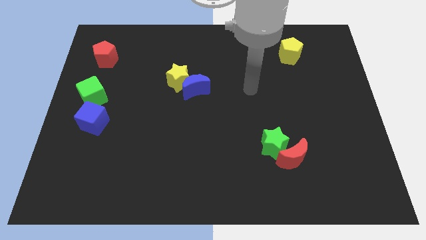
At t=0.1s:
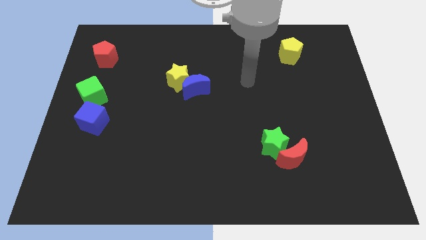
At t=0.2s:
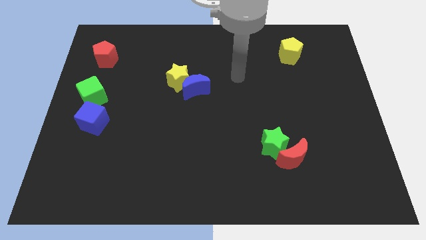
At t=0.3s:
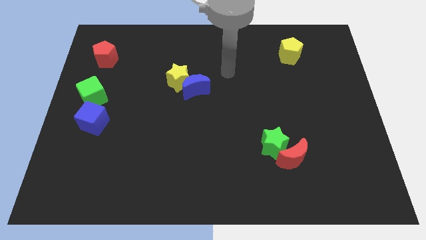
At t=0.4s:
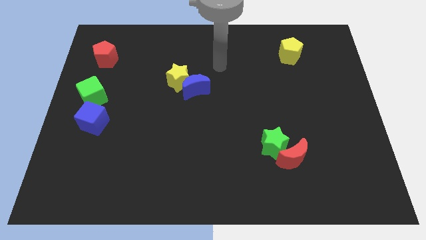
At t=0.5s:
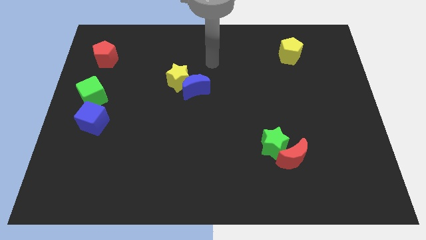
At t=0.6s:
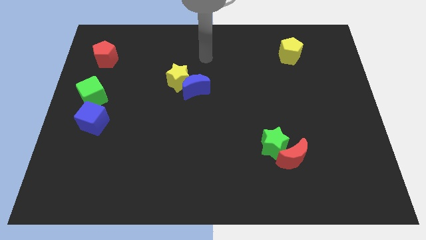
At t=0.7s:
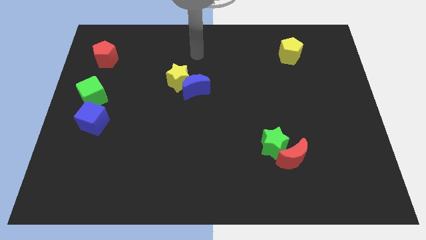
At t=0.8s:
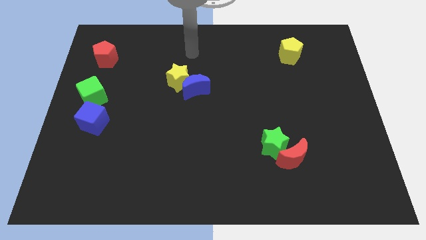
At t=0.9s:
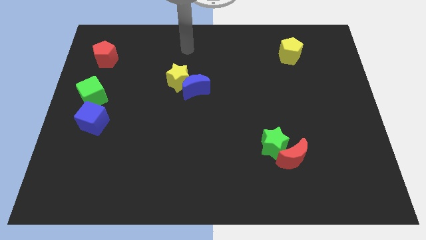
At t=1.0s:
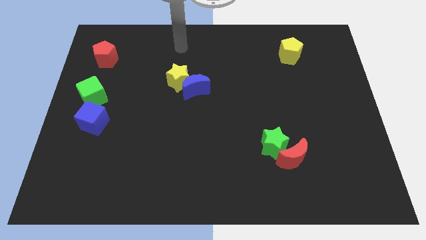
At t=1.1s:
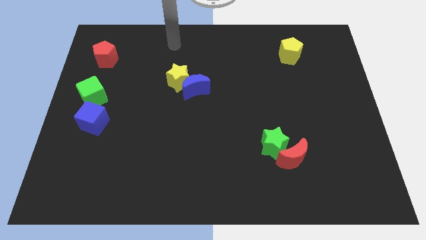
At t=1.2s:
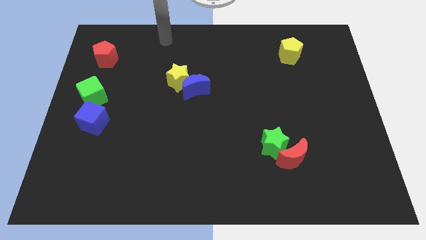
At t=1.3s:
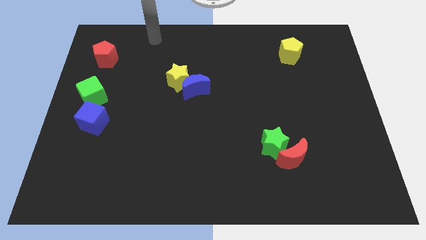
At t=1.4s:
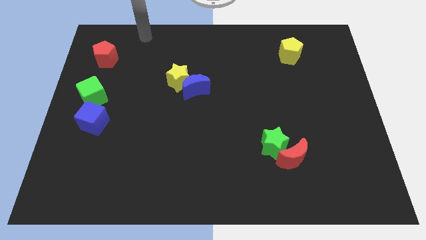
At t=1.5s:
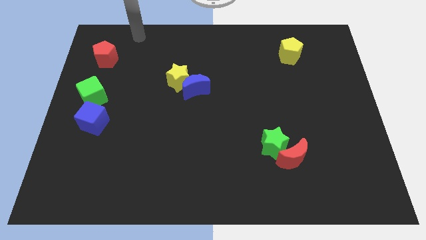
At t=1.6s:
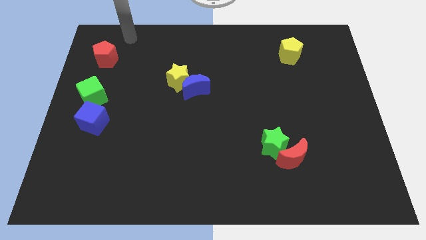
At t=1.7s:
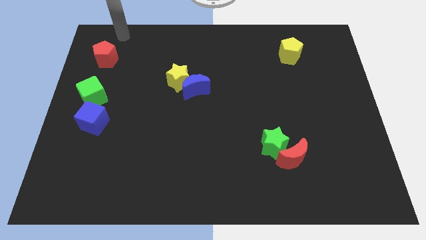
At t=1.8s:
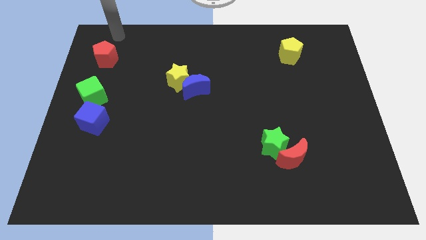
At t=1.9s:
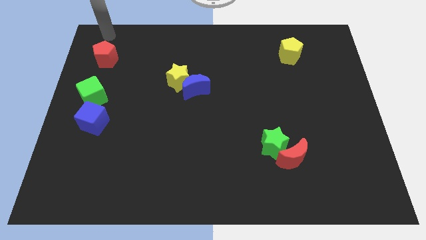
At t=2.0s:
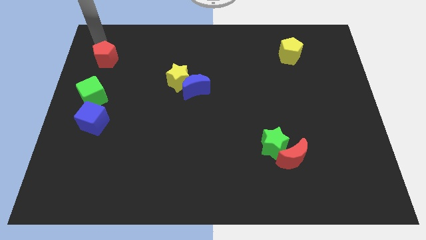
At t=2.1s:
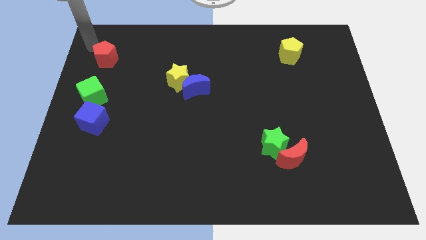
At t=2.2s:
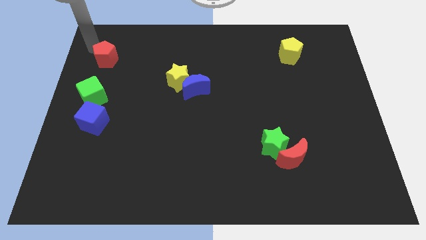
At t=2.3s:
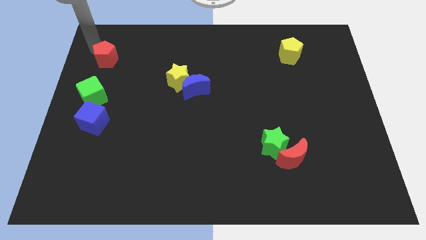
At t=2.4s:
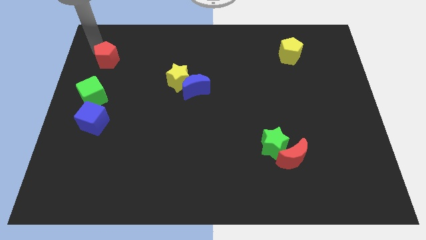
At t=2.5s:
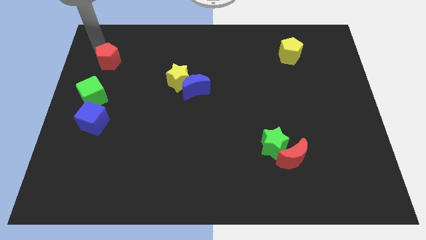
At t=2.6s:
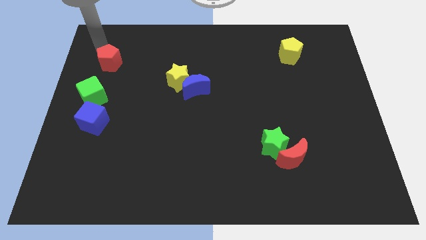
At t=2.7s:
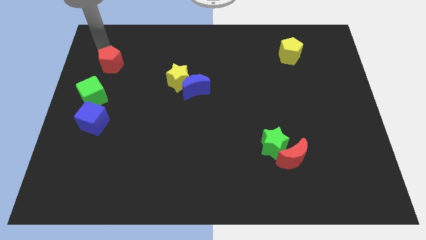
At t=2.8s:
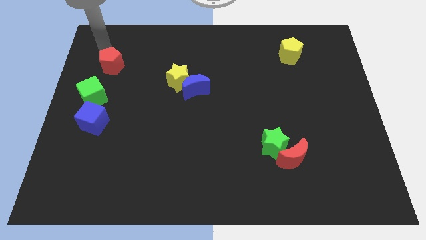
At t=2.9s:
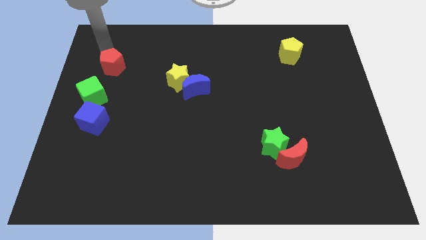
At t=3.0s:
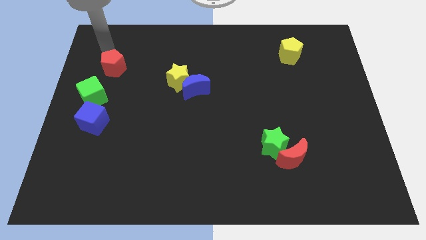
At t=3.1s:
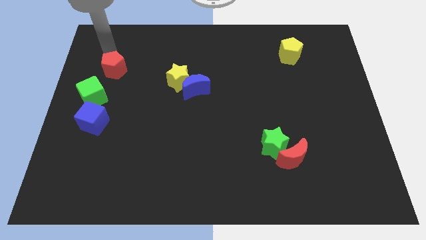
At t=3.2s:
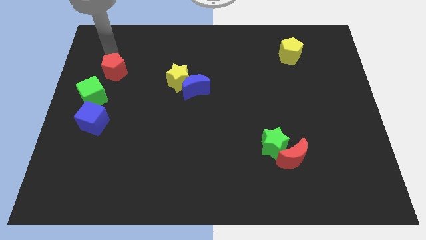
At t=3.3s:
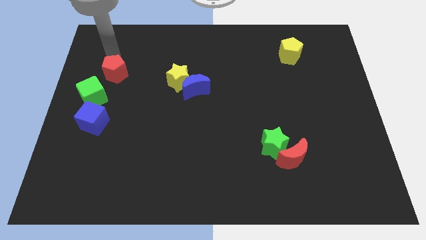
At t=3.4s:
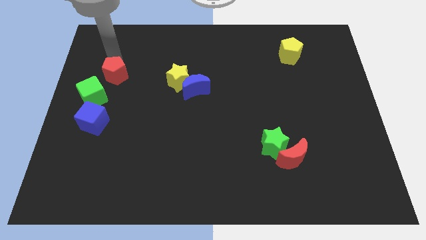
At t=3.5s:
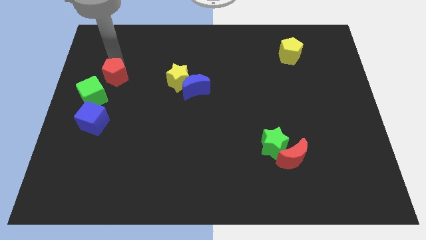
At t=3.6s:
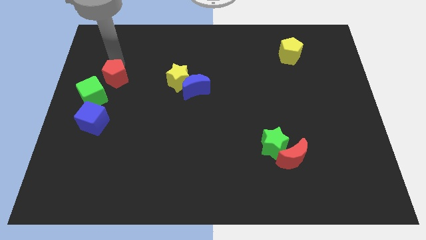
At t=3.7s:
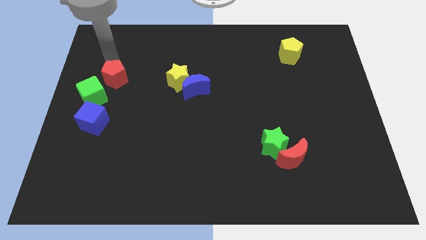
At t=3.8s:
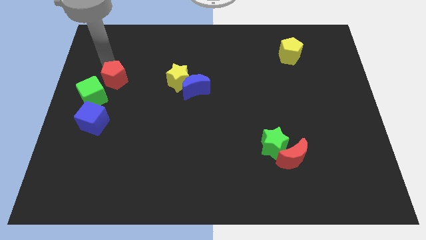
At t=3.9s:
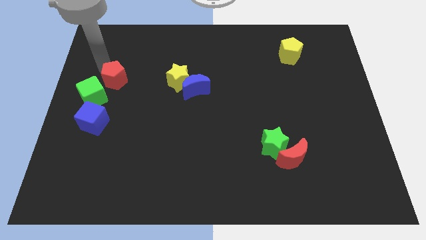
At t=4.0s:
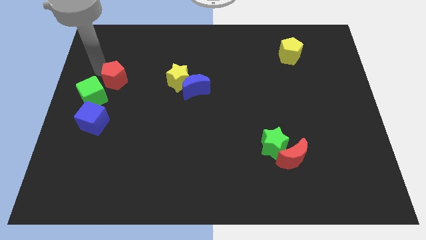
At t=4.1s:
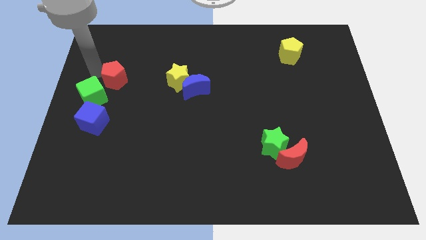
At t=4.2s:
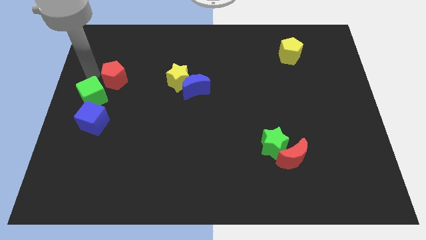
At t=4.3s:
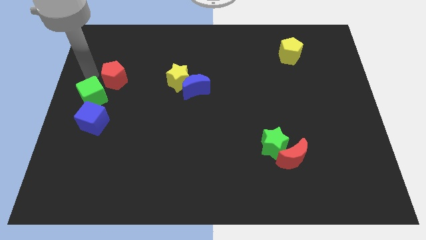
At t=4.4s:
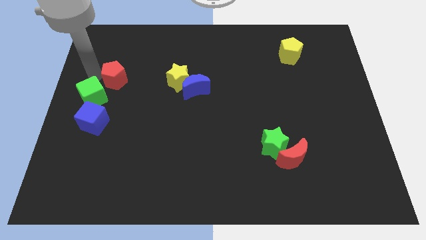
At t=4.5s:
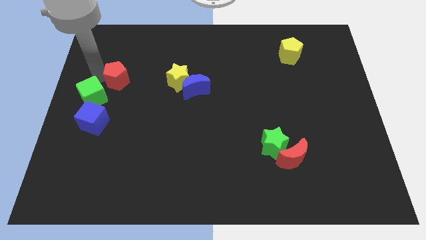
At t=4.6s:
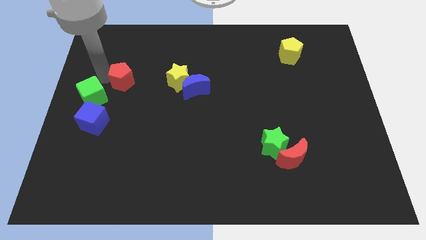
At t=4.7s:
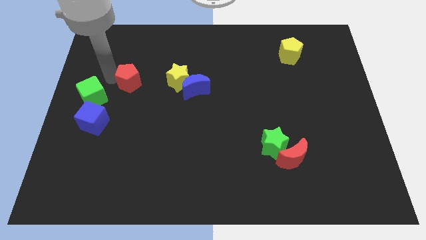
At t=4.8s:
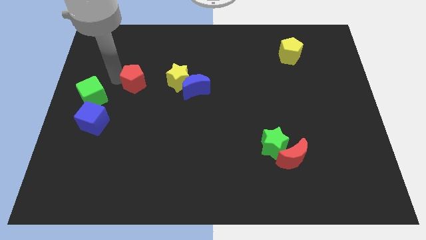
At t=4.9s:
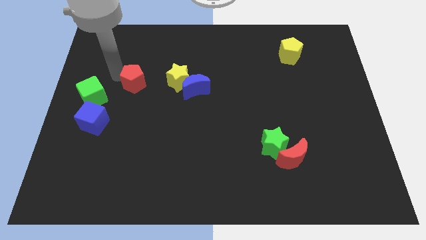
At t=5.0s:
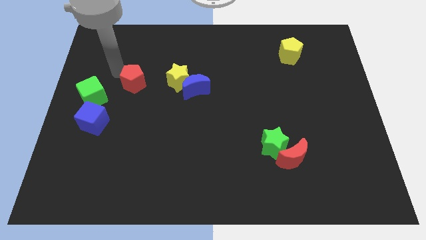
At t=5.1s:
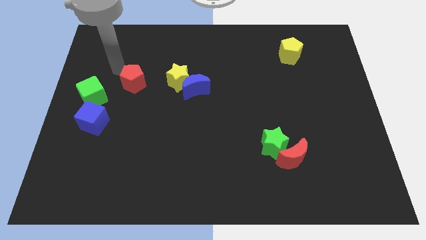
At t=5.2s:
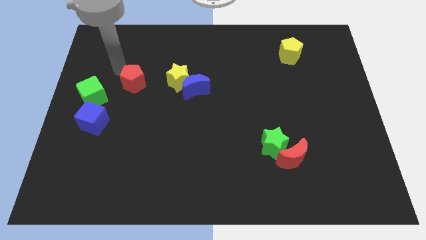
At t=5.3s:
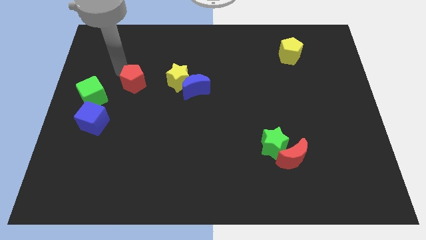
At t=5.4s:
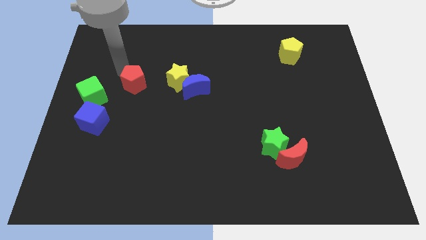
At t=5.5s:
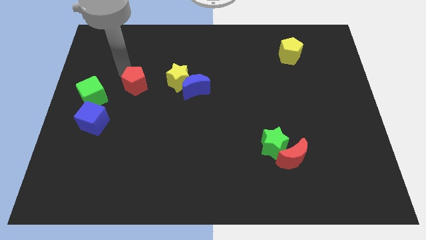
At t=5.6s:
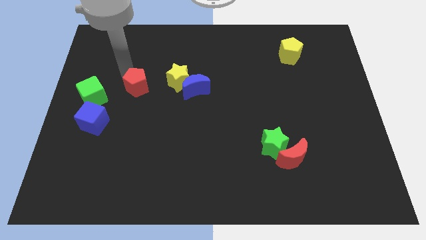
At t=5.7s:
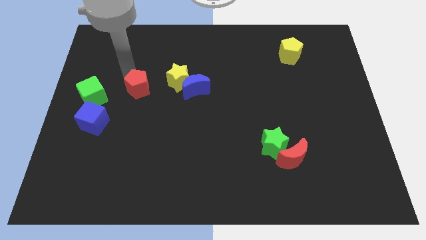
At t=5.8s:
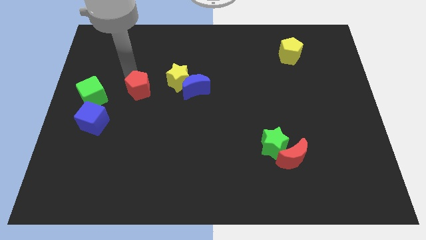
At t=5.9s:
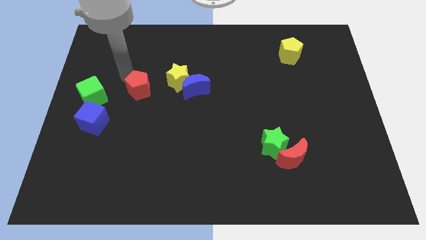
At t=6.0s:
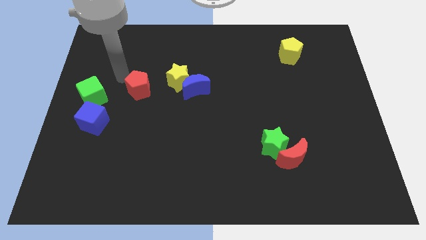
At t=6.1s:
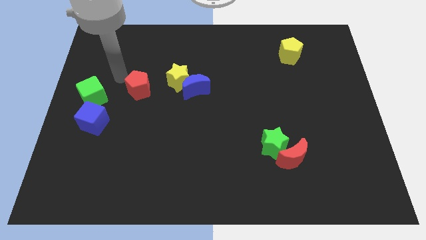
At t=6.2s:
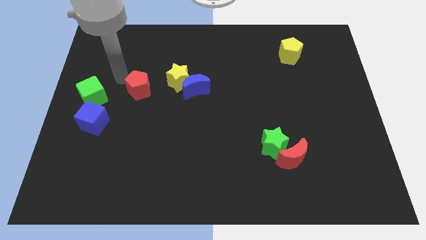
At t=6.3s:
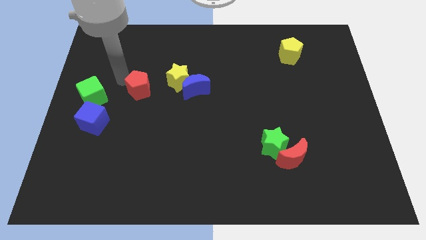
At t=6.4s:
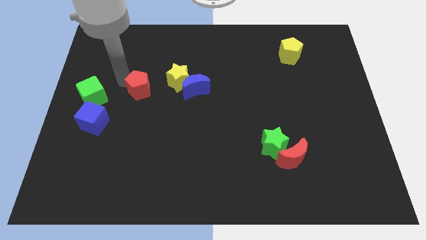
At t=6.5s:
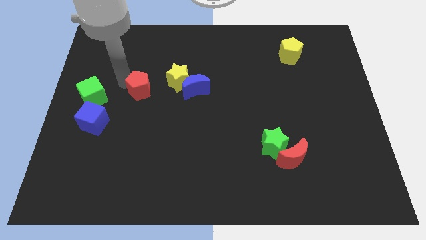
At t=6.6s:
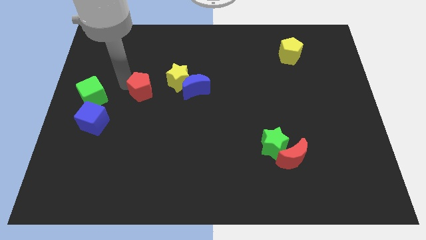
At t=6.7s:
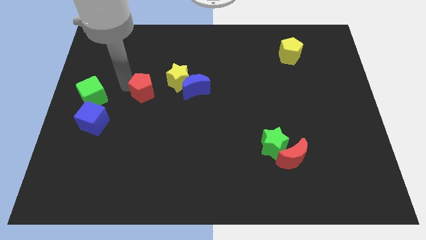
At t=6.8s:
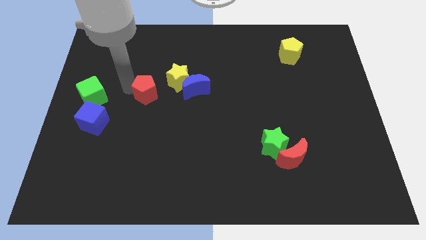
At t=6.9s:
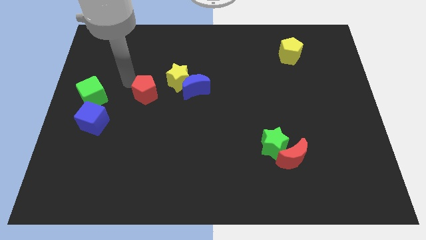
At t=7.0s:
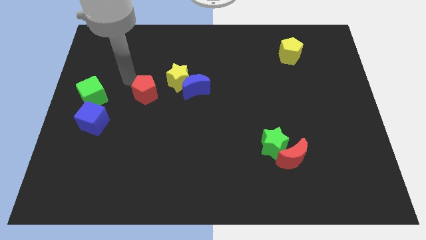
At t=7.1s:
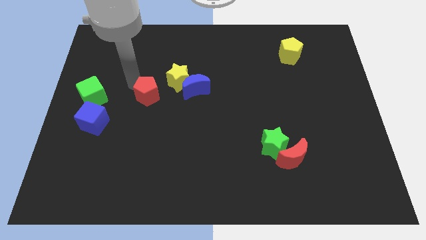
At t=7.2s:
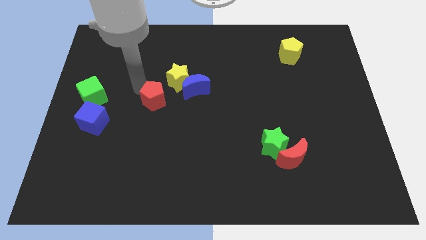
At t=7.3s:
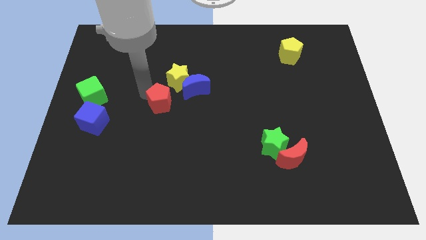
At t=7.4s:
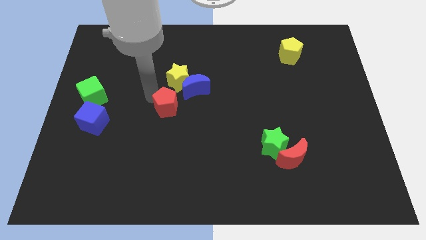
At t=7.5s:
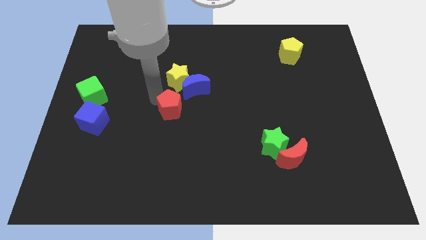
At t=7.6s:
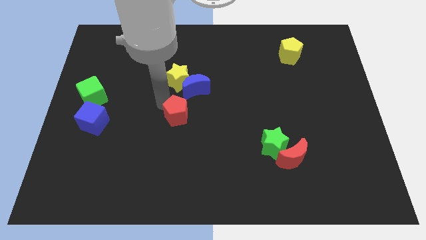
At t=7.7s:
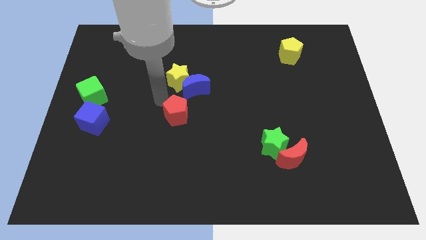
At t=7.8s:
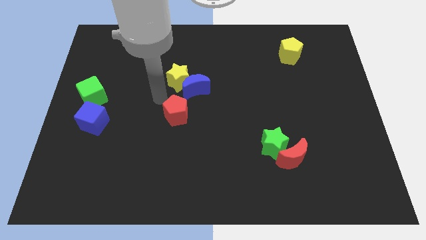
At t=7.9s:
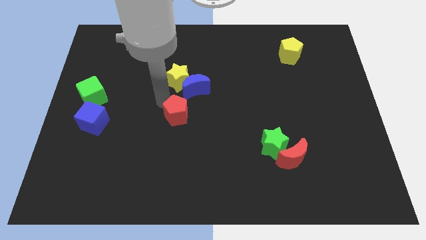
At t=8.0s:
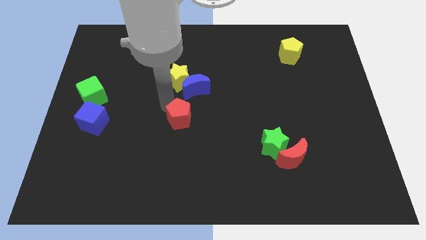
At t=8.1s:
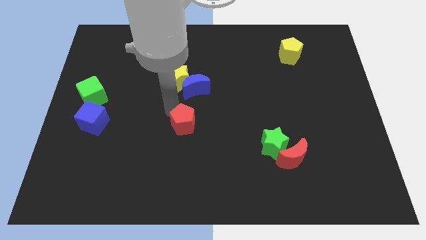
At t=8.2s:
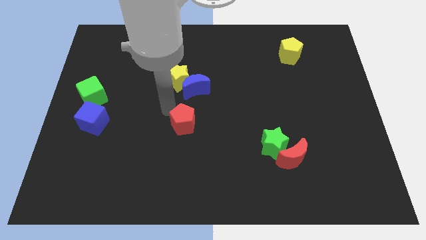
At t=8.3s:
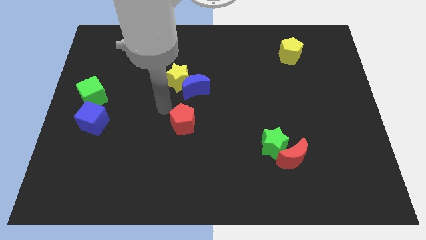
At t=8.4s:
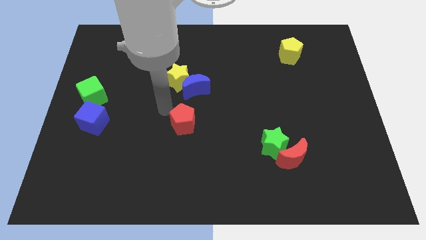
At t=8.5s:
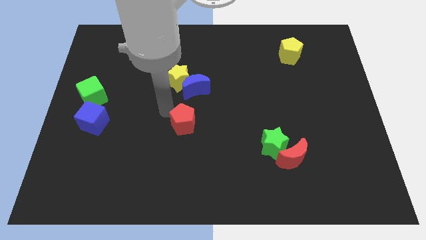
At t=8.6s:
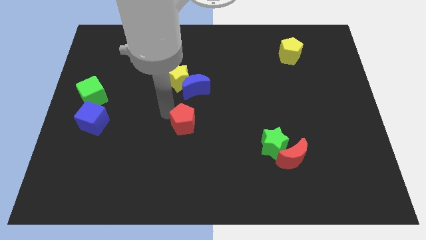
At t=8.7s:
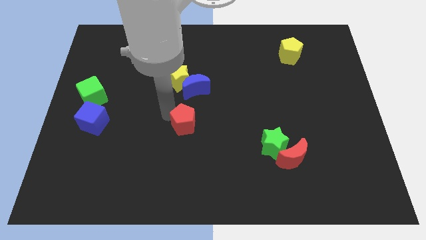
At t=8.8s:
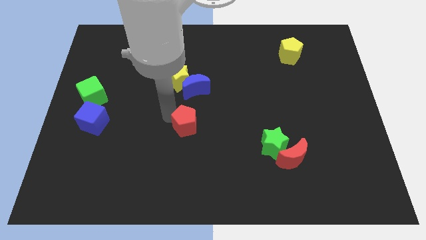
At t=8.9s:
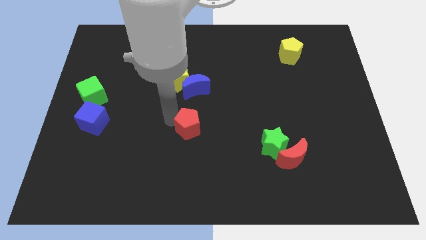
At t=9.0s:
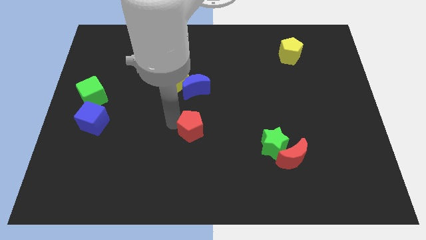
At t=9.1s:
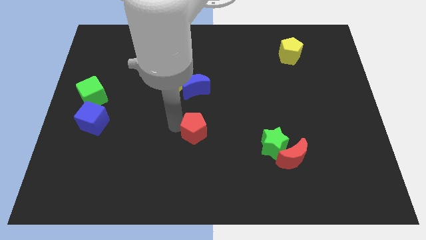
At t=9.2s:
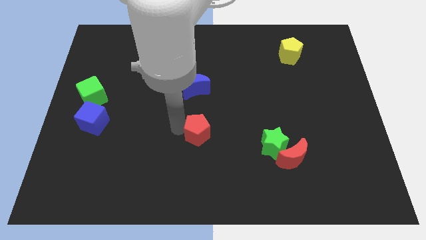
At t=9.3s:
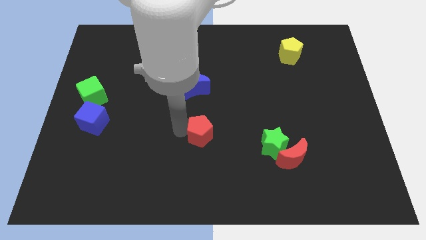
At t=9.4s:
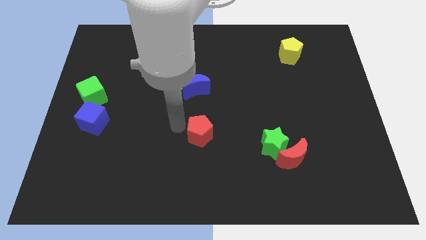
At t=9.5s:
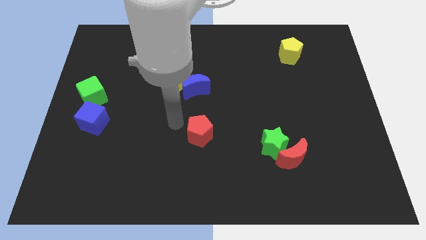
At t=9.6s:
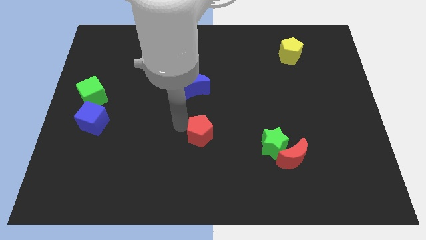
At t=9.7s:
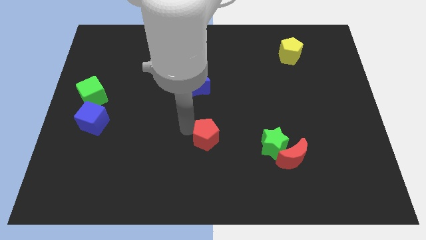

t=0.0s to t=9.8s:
slide the red pentagon just left of the green star
